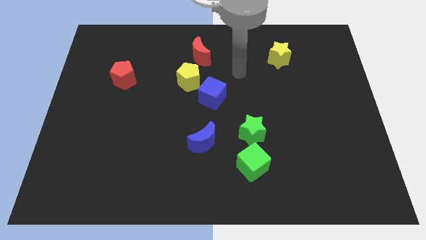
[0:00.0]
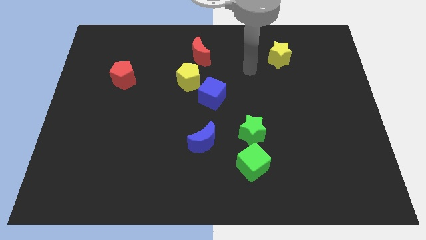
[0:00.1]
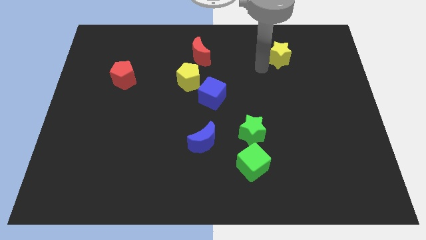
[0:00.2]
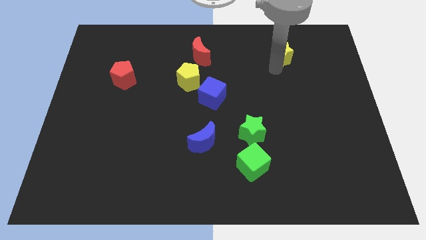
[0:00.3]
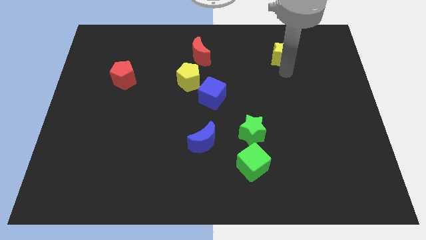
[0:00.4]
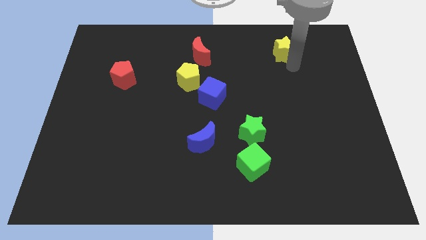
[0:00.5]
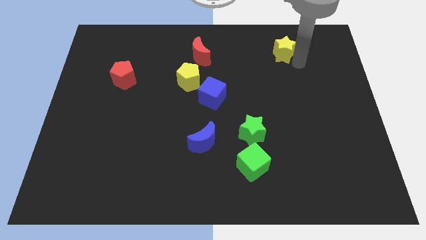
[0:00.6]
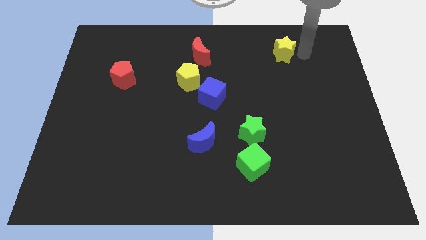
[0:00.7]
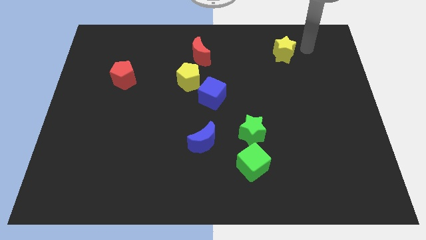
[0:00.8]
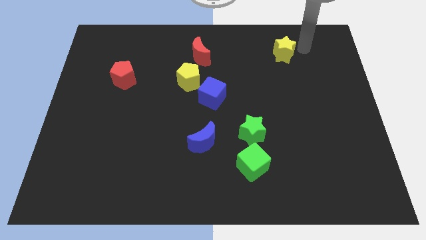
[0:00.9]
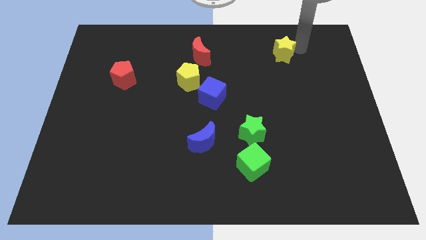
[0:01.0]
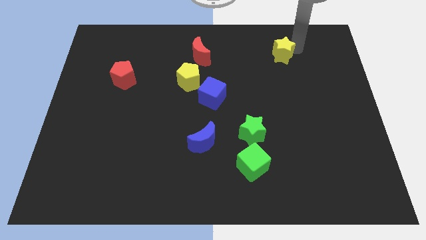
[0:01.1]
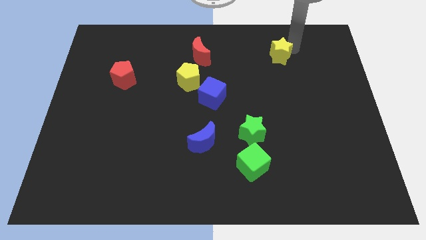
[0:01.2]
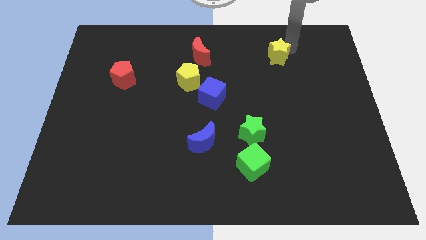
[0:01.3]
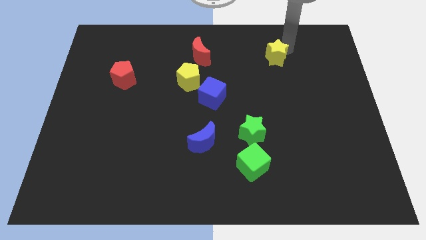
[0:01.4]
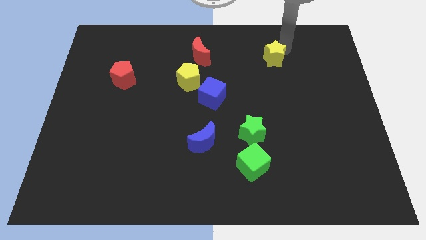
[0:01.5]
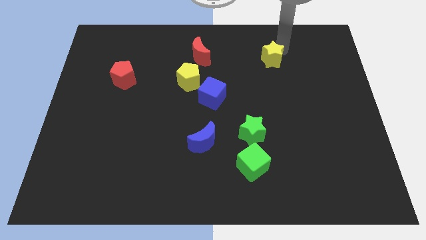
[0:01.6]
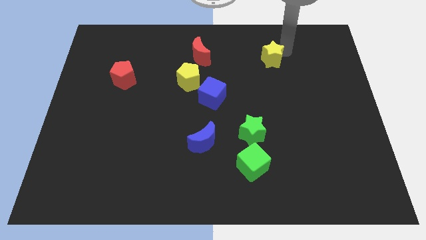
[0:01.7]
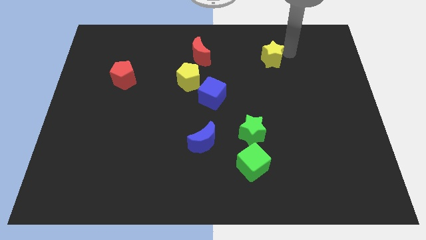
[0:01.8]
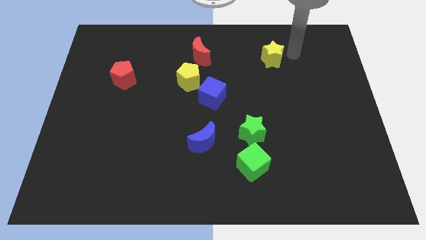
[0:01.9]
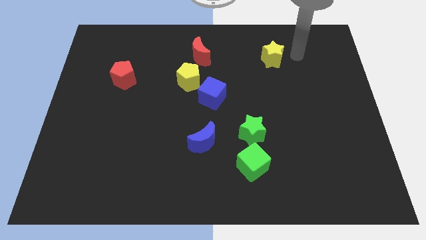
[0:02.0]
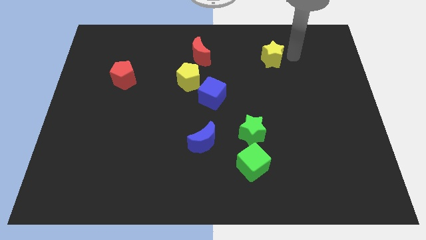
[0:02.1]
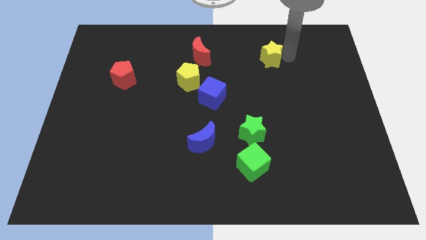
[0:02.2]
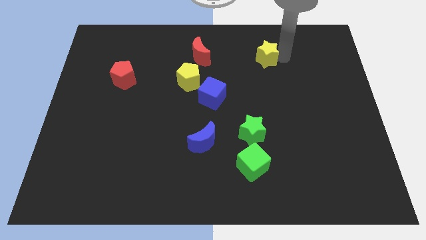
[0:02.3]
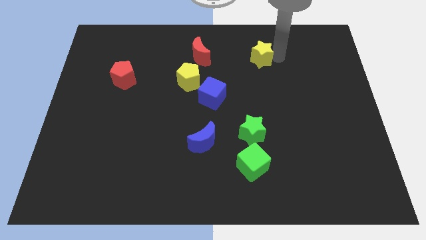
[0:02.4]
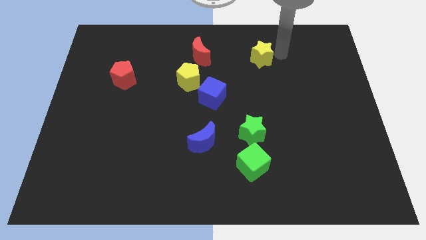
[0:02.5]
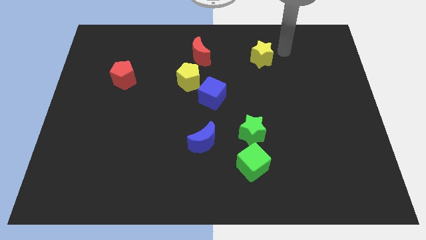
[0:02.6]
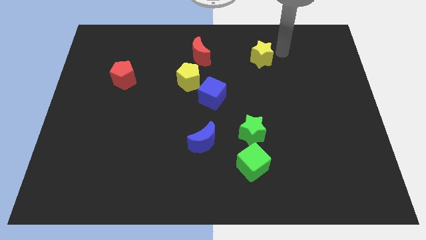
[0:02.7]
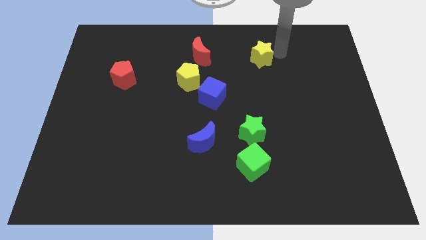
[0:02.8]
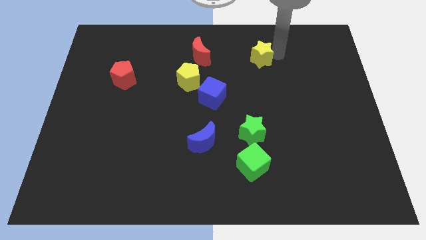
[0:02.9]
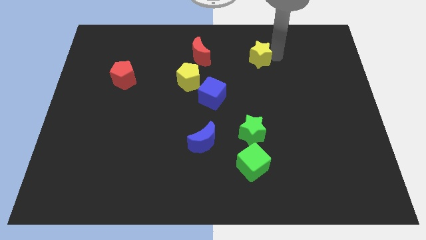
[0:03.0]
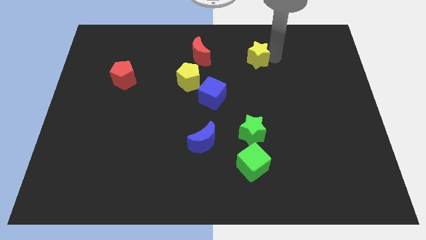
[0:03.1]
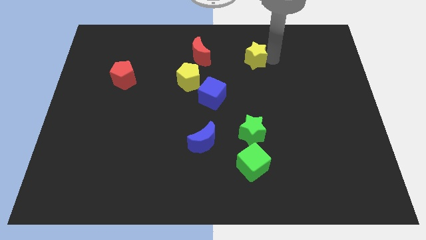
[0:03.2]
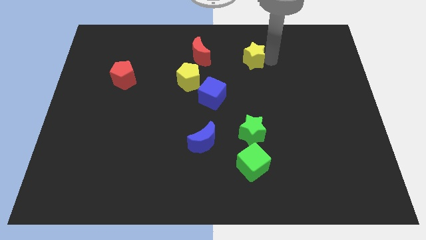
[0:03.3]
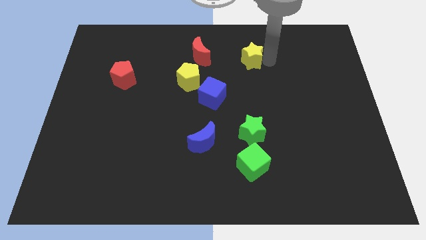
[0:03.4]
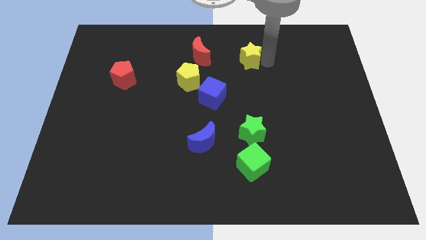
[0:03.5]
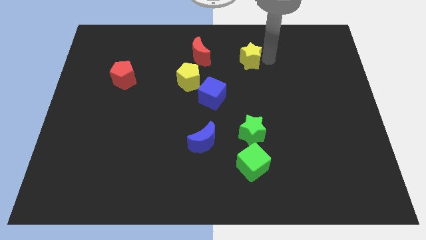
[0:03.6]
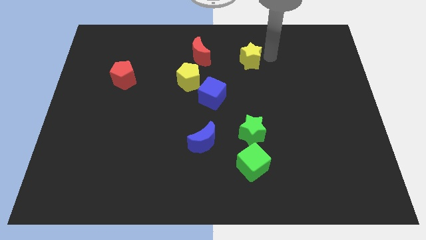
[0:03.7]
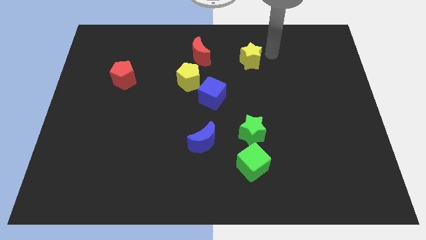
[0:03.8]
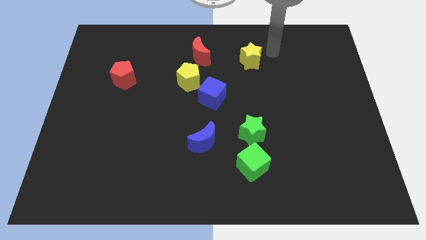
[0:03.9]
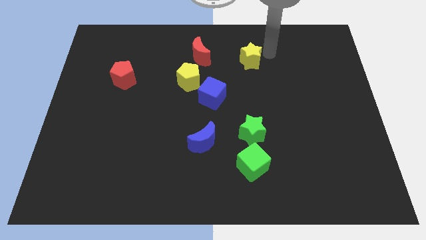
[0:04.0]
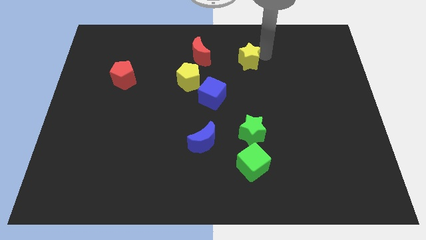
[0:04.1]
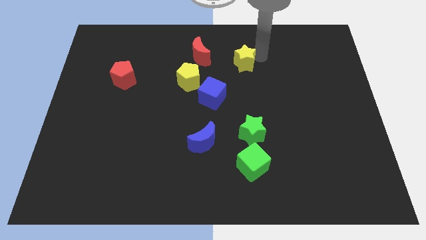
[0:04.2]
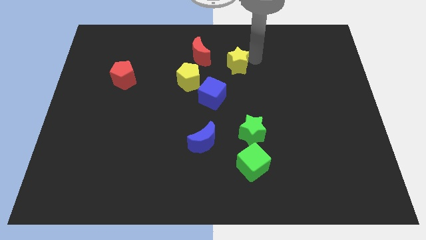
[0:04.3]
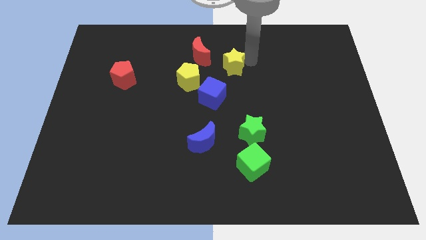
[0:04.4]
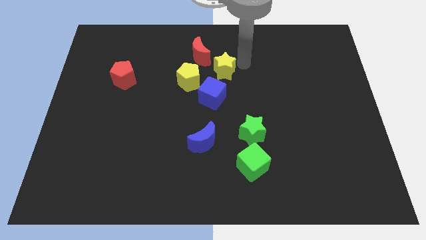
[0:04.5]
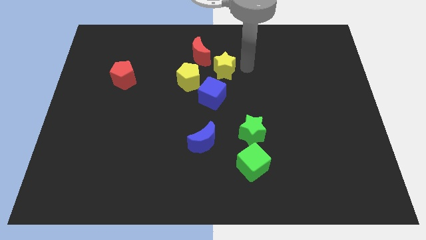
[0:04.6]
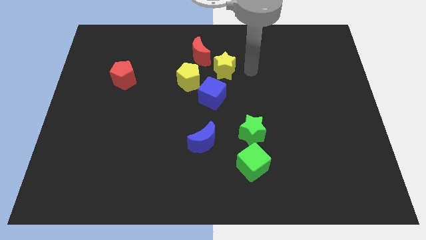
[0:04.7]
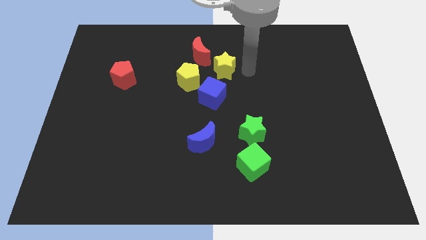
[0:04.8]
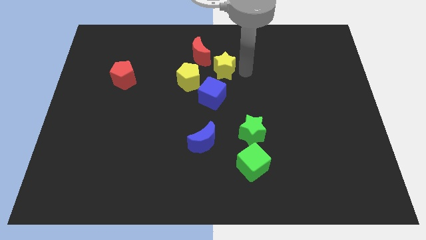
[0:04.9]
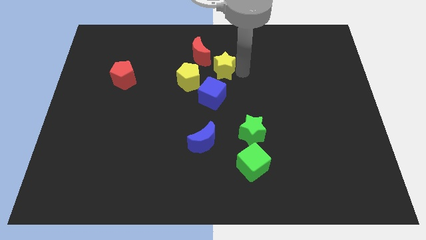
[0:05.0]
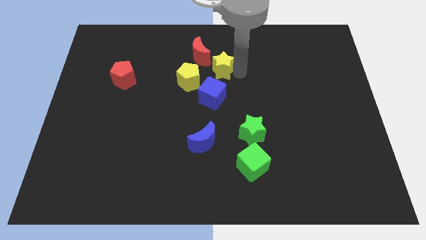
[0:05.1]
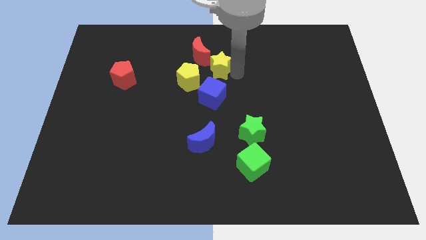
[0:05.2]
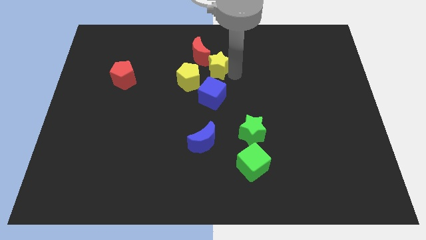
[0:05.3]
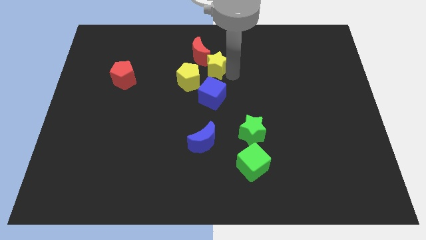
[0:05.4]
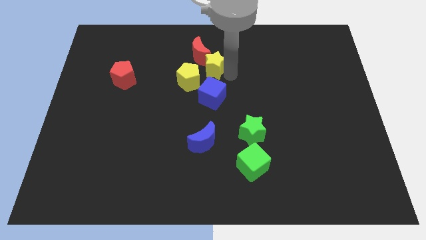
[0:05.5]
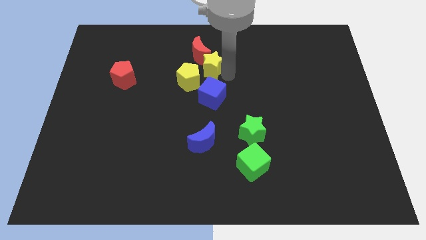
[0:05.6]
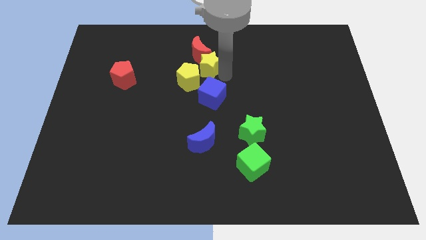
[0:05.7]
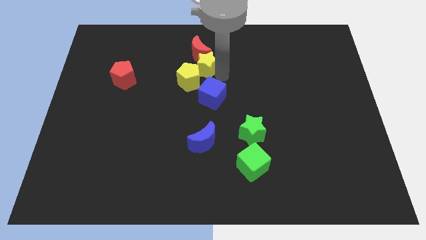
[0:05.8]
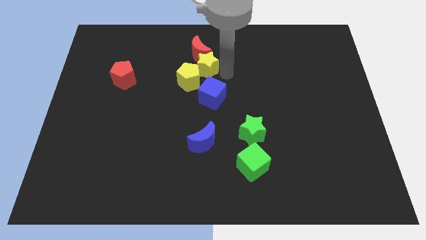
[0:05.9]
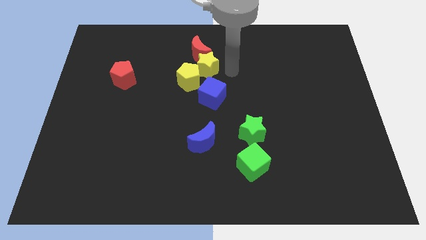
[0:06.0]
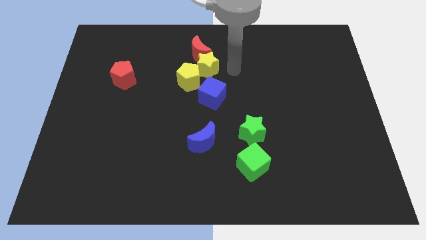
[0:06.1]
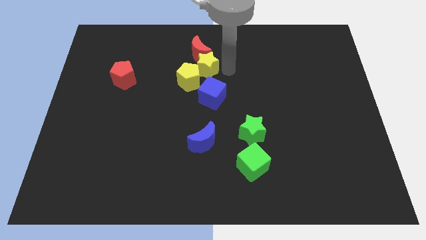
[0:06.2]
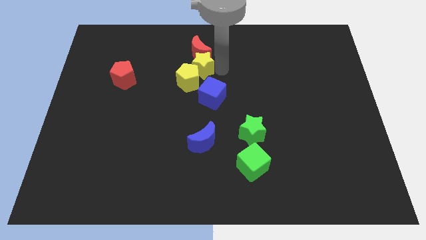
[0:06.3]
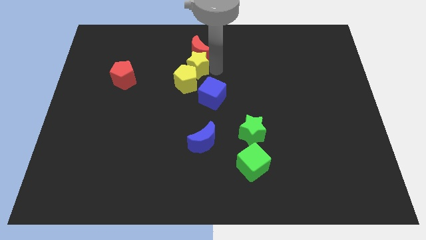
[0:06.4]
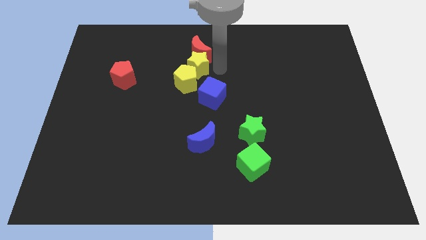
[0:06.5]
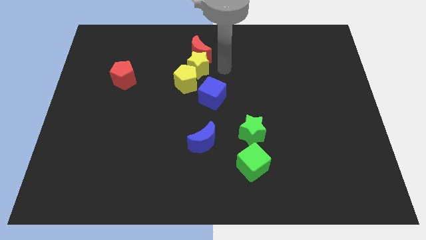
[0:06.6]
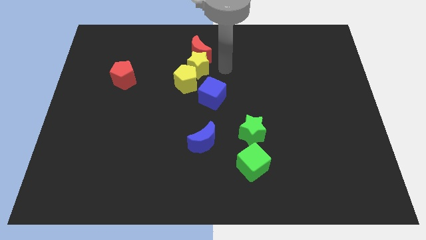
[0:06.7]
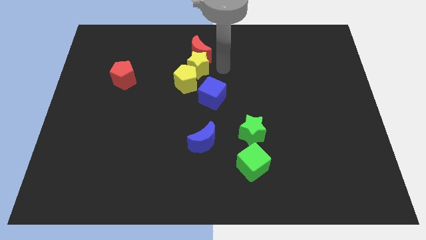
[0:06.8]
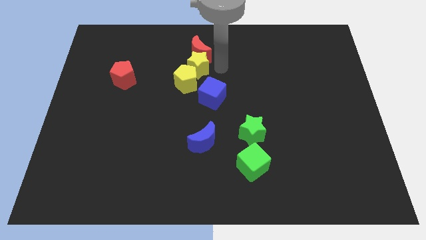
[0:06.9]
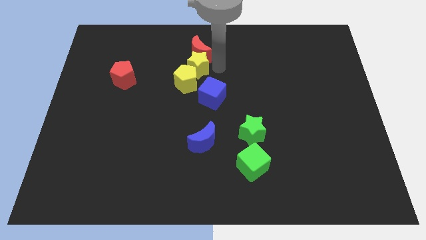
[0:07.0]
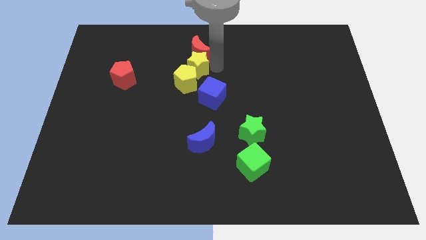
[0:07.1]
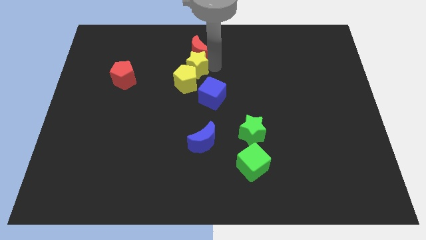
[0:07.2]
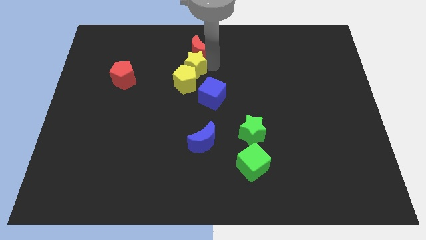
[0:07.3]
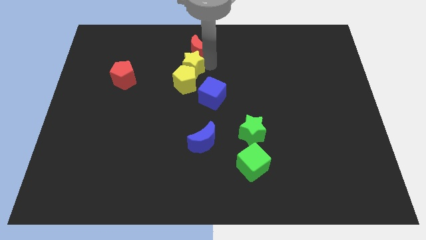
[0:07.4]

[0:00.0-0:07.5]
slide the yellow star diagonally up and to the left of the yellow pentagon

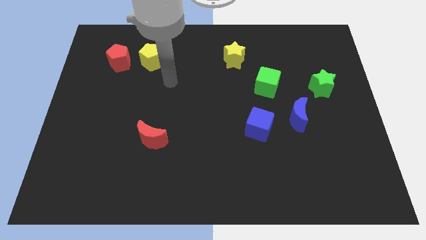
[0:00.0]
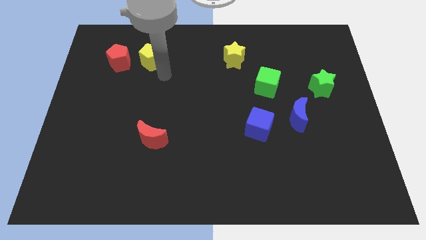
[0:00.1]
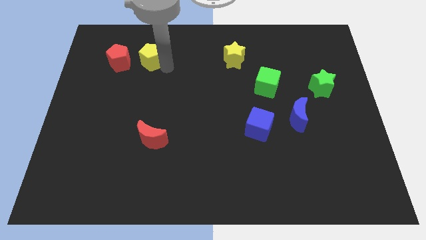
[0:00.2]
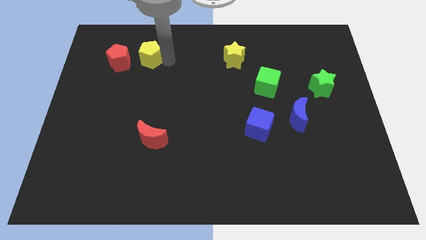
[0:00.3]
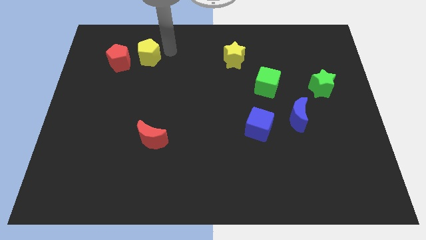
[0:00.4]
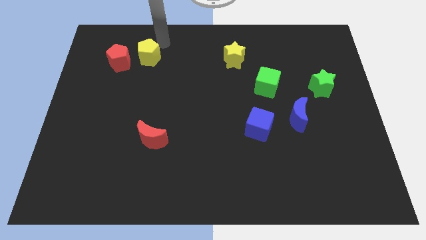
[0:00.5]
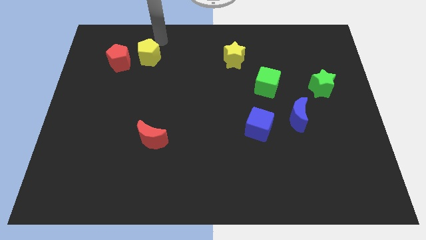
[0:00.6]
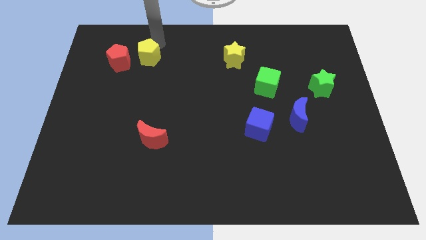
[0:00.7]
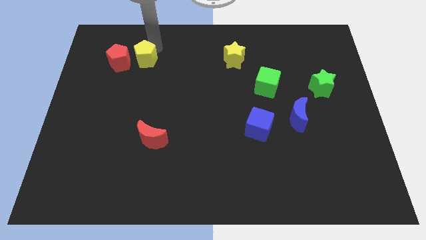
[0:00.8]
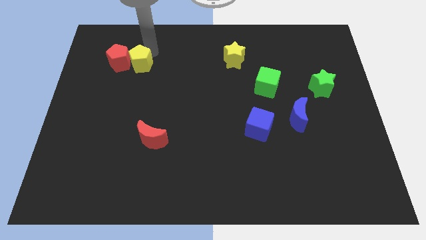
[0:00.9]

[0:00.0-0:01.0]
put the yellow pentagon to the bottom right side of the red pentagon
